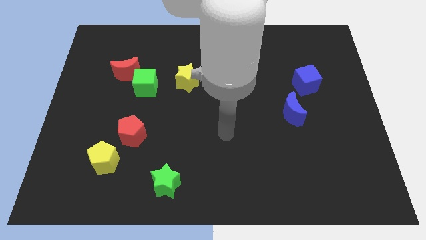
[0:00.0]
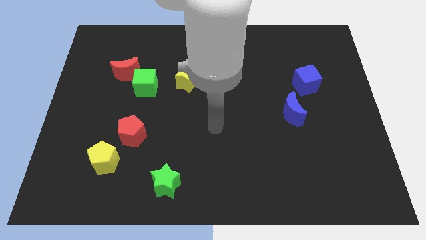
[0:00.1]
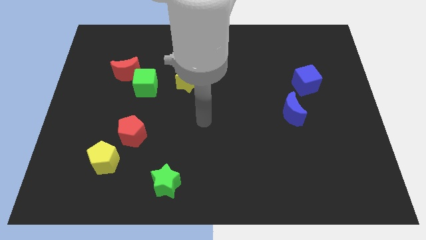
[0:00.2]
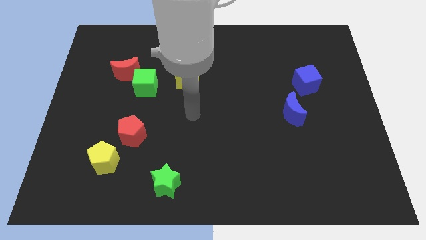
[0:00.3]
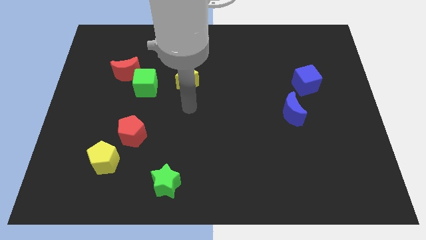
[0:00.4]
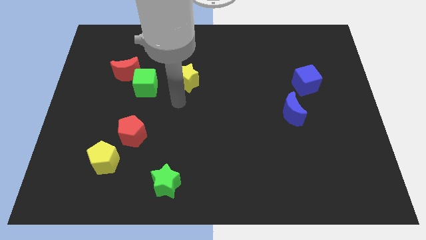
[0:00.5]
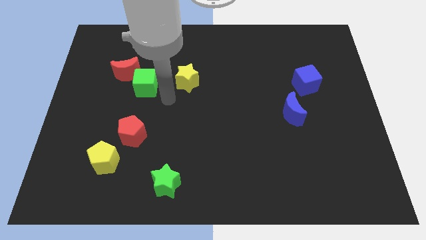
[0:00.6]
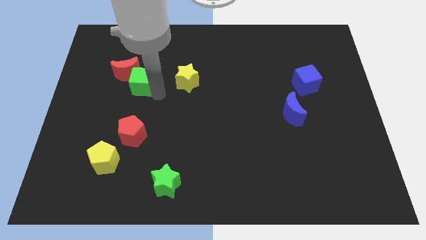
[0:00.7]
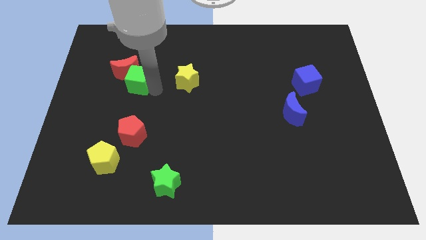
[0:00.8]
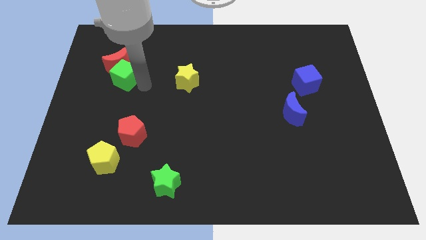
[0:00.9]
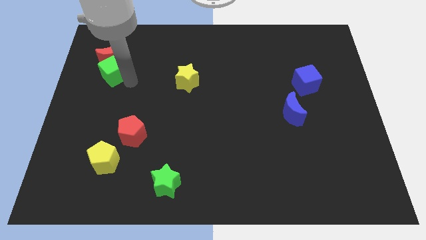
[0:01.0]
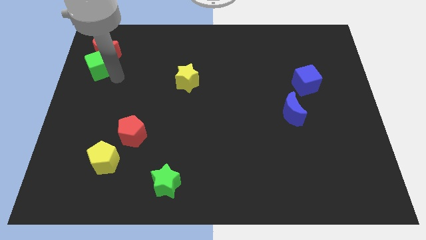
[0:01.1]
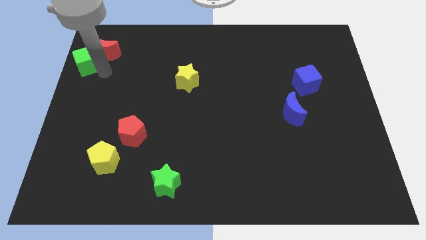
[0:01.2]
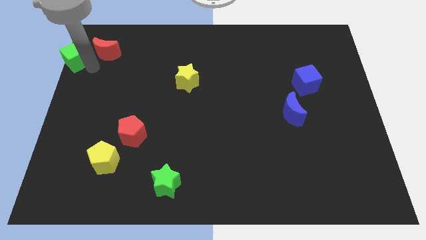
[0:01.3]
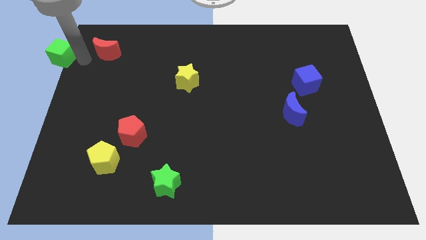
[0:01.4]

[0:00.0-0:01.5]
pull the red moon apart from the green cube

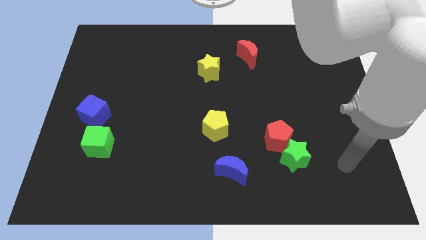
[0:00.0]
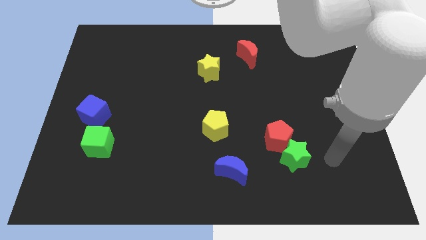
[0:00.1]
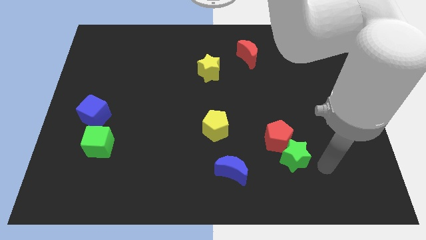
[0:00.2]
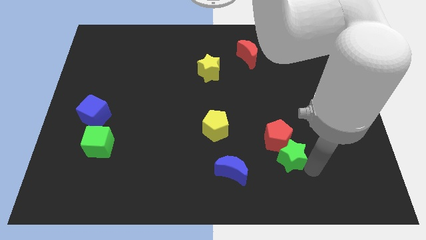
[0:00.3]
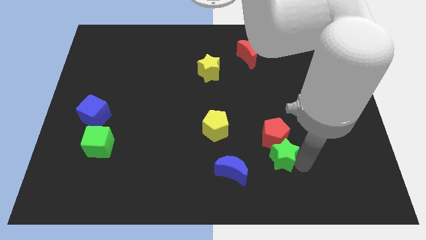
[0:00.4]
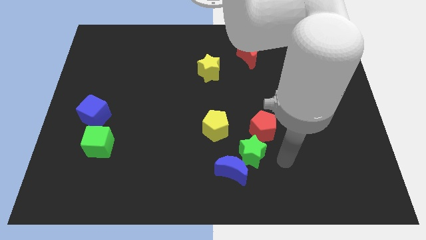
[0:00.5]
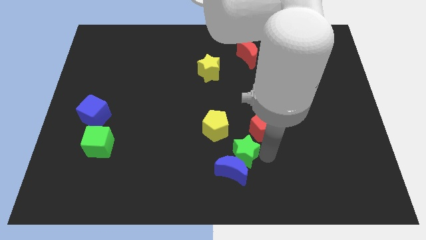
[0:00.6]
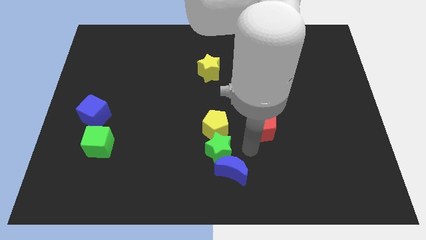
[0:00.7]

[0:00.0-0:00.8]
separate the red pentagon from the green star

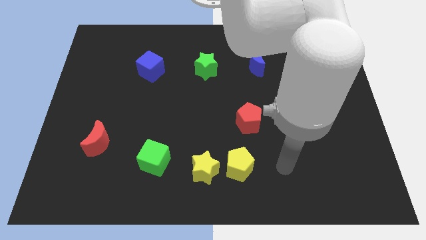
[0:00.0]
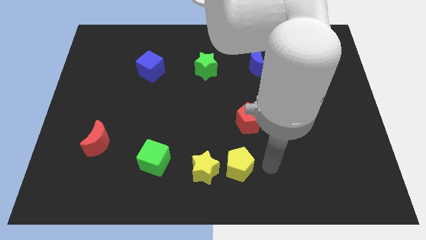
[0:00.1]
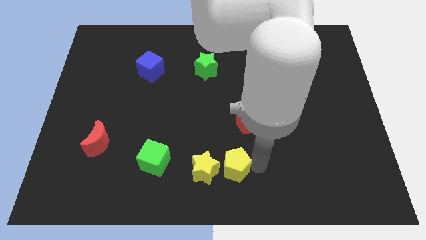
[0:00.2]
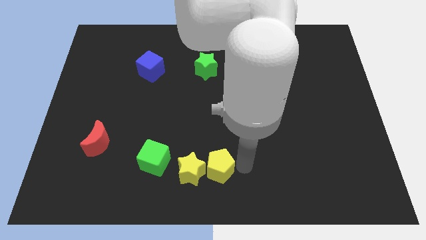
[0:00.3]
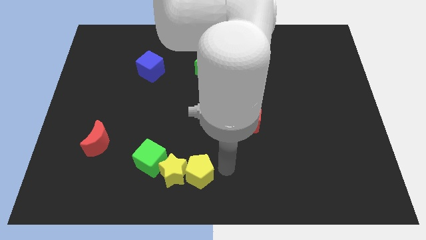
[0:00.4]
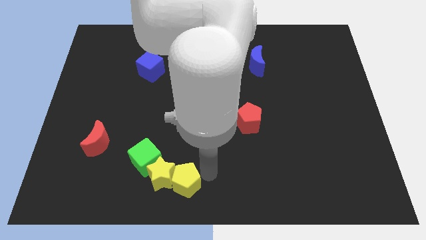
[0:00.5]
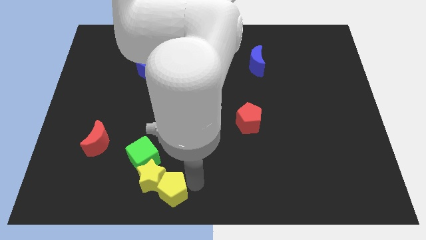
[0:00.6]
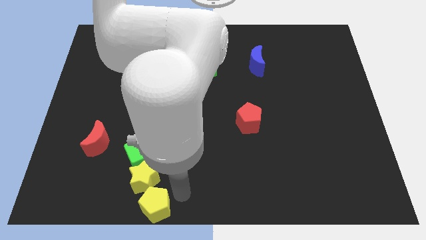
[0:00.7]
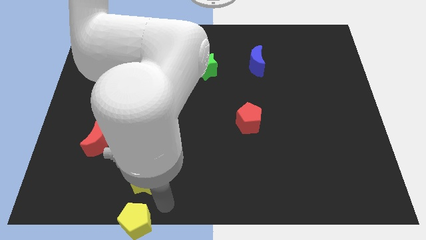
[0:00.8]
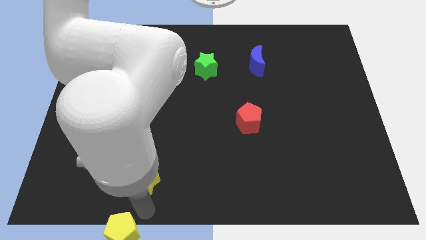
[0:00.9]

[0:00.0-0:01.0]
move the yellow star away from the yellow pentagon

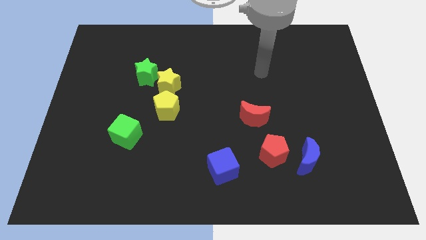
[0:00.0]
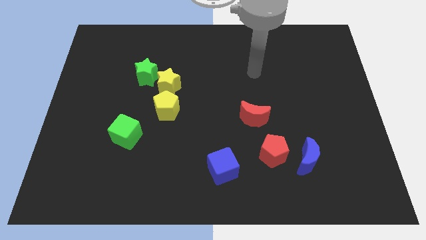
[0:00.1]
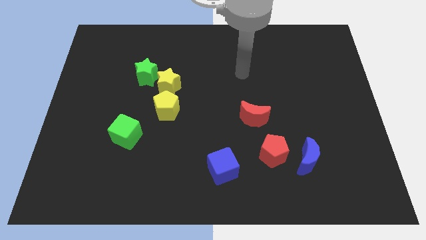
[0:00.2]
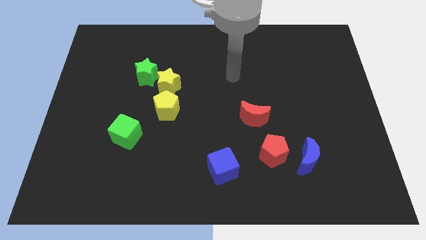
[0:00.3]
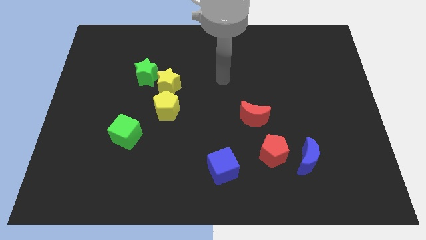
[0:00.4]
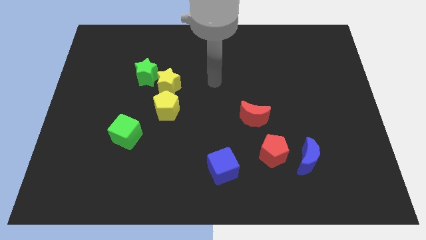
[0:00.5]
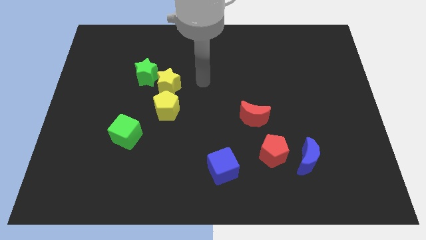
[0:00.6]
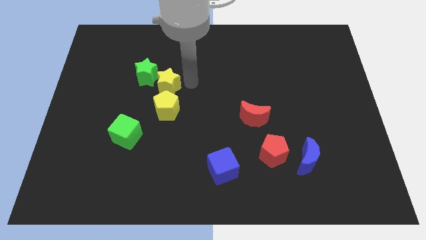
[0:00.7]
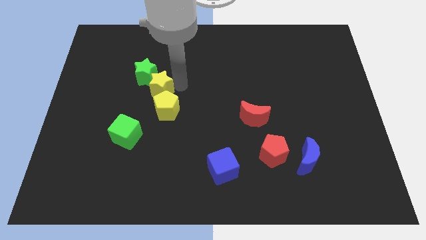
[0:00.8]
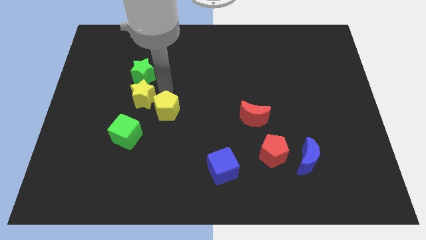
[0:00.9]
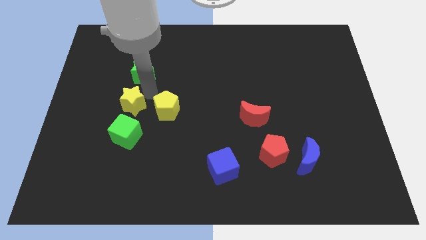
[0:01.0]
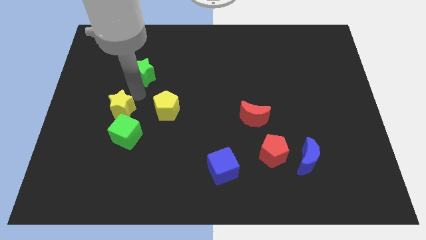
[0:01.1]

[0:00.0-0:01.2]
move the green star away from the yellow star

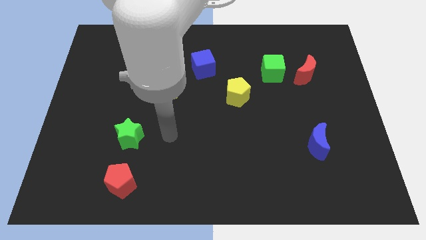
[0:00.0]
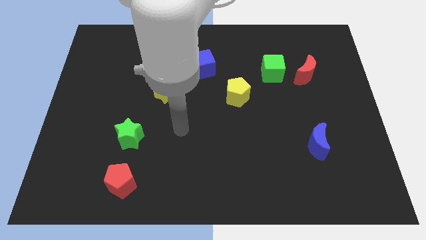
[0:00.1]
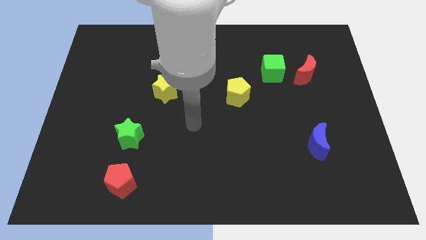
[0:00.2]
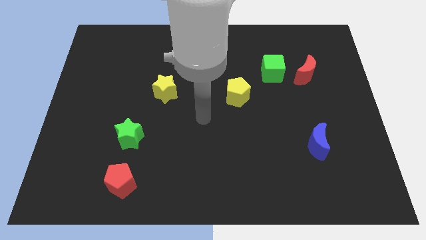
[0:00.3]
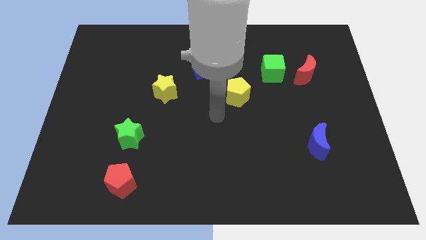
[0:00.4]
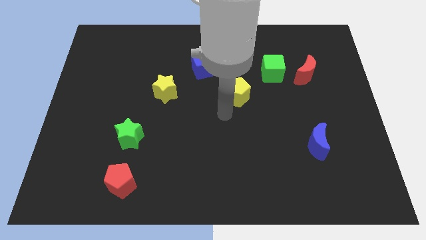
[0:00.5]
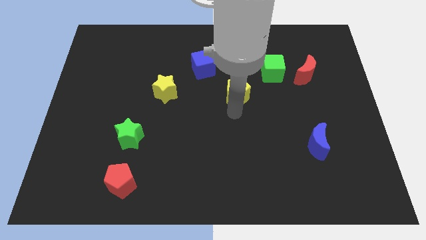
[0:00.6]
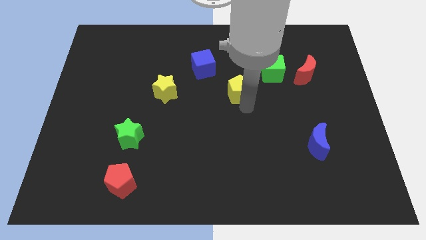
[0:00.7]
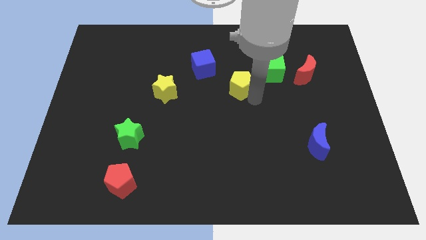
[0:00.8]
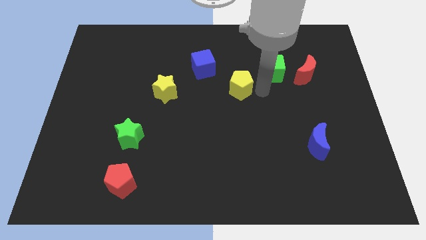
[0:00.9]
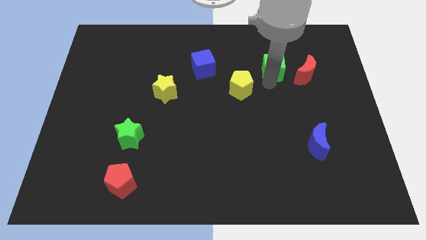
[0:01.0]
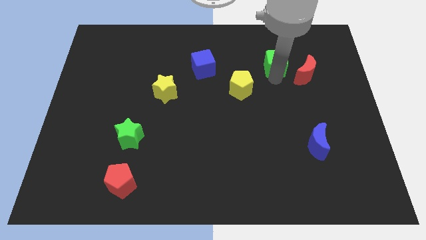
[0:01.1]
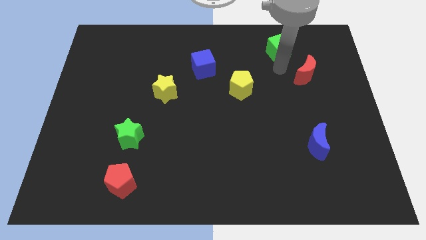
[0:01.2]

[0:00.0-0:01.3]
move the red moon away from the green cube

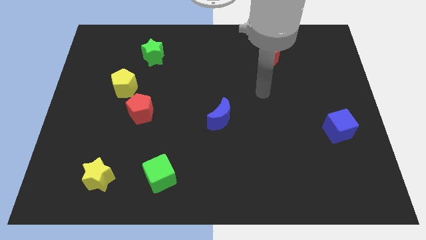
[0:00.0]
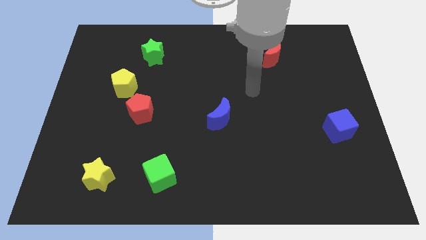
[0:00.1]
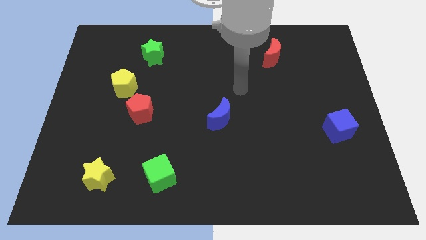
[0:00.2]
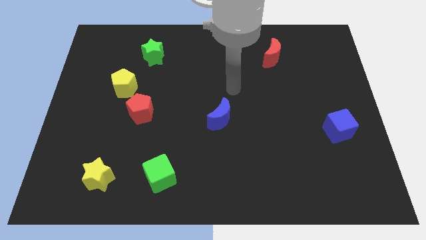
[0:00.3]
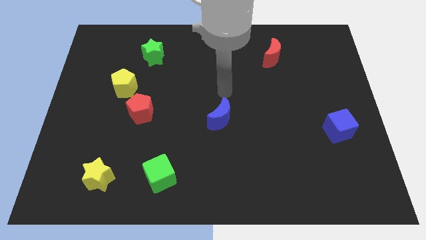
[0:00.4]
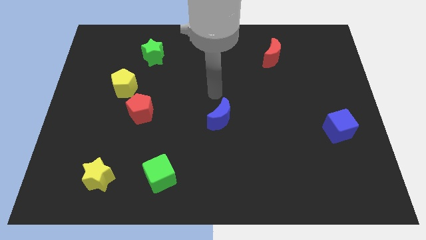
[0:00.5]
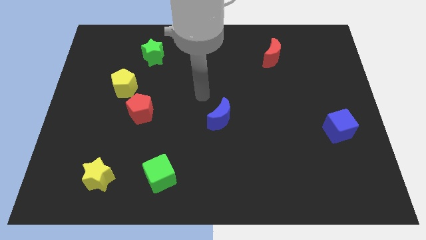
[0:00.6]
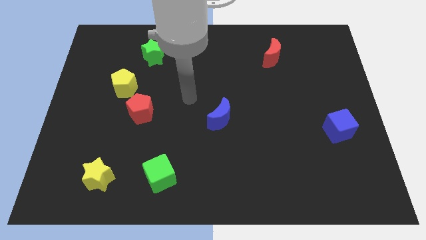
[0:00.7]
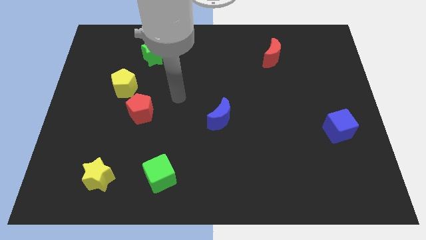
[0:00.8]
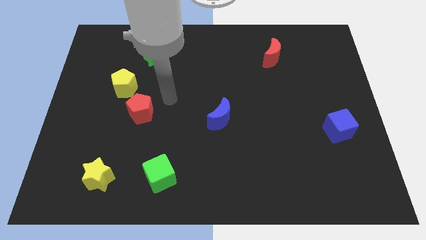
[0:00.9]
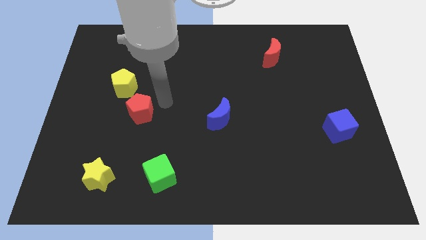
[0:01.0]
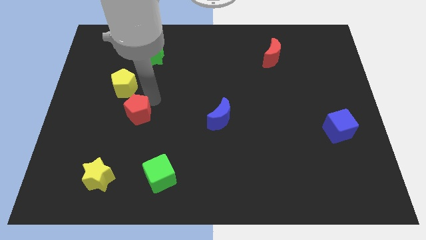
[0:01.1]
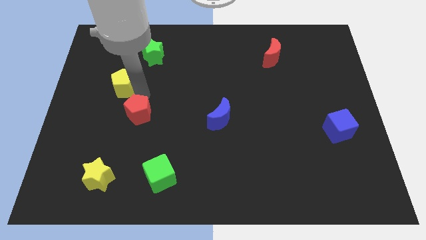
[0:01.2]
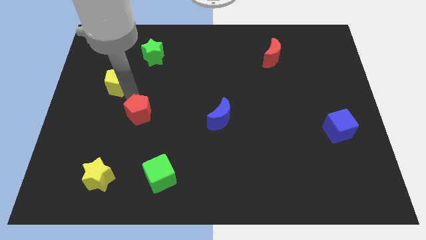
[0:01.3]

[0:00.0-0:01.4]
pull the red pentagon apart from the yellow pentagon

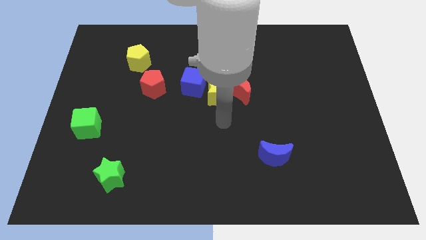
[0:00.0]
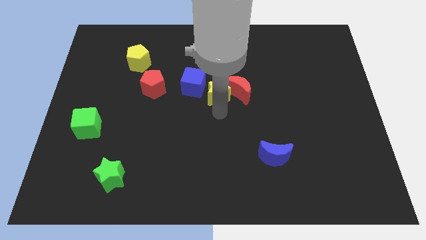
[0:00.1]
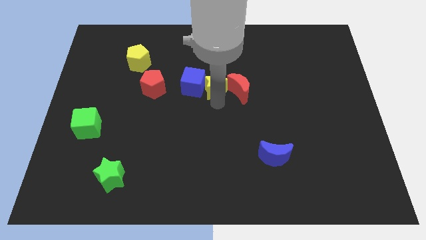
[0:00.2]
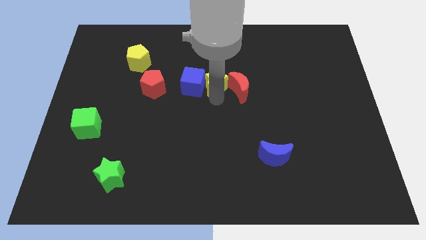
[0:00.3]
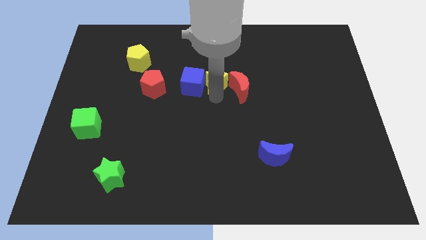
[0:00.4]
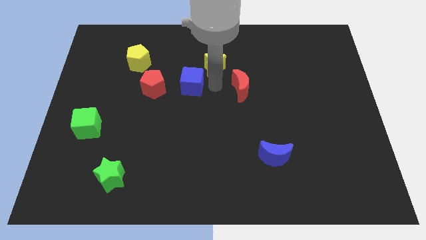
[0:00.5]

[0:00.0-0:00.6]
pull the red moon apart from the yellow star

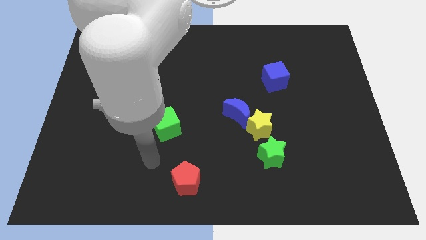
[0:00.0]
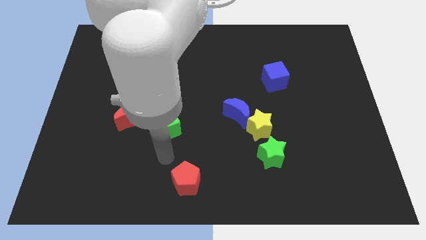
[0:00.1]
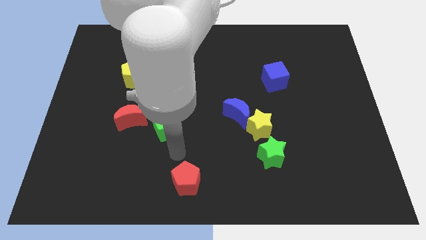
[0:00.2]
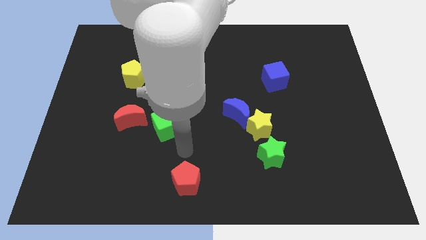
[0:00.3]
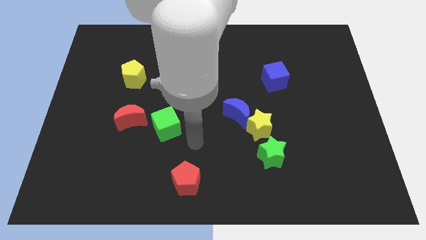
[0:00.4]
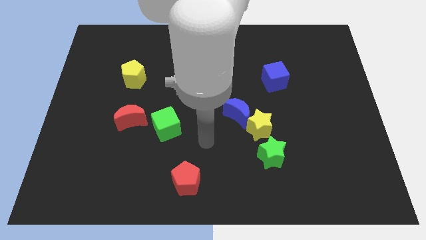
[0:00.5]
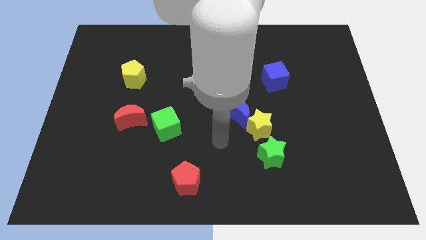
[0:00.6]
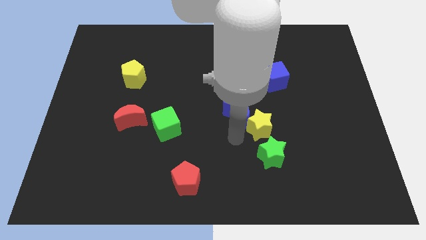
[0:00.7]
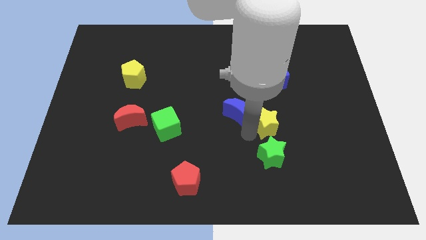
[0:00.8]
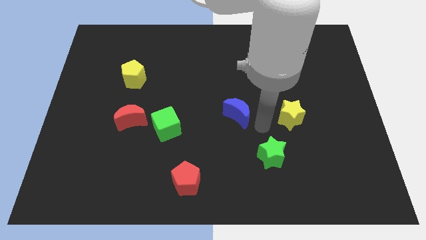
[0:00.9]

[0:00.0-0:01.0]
separate the blue moon from the yellow star

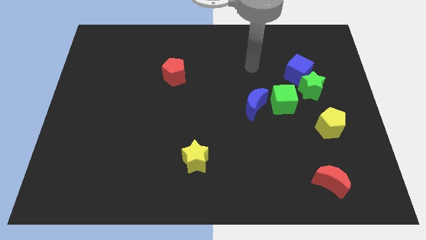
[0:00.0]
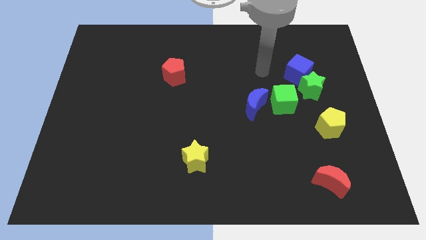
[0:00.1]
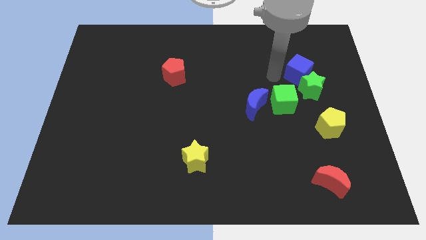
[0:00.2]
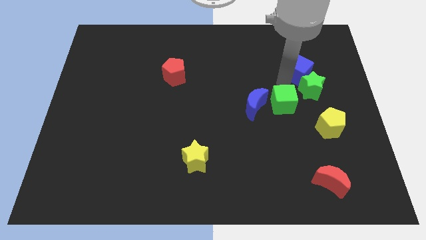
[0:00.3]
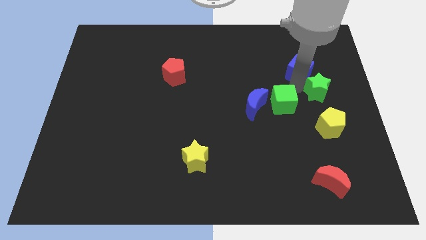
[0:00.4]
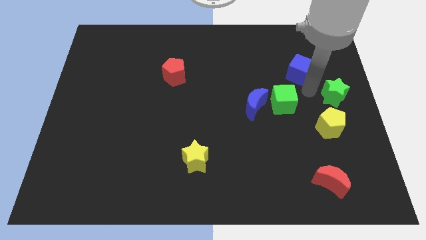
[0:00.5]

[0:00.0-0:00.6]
move the blue cube away from the green star
